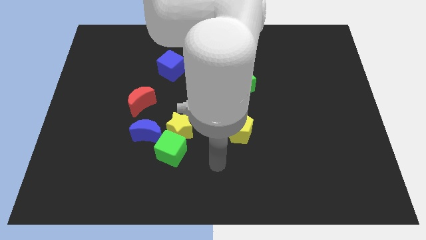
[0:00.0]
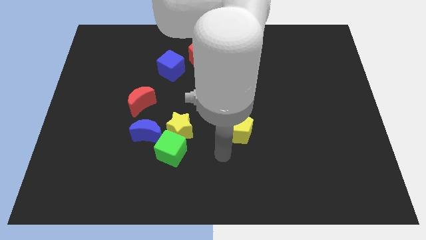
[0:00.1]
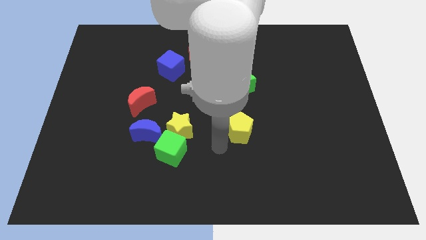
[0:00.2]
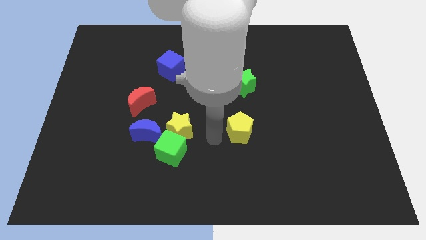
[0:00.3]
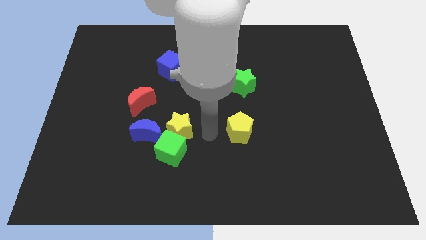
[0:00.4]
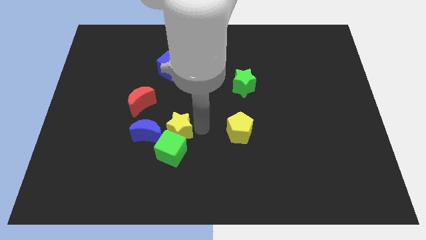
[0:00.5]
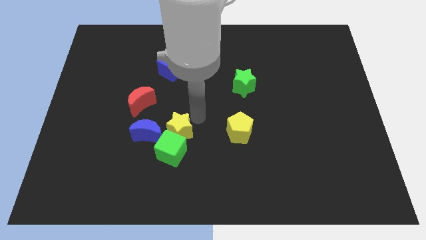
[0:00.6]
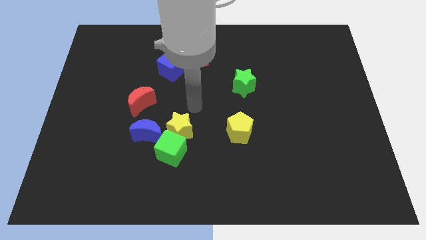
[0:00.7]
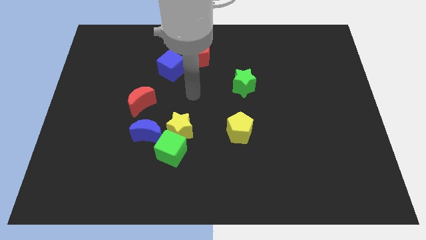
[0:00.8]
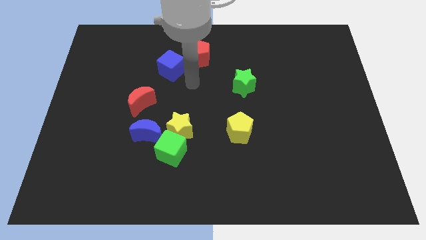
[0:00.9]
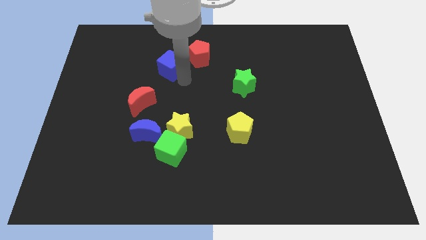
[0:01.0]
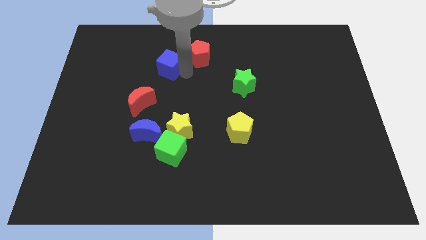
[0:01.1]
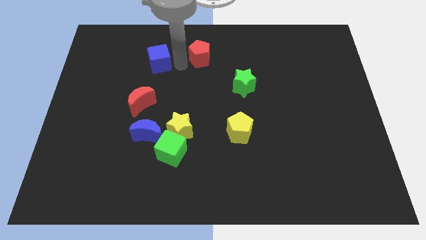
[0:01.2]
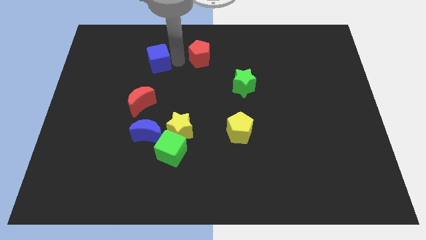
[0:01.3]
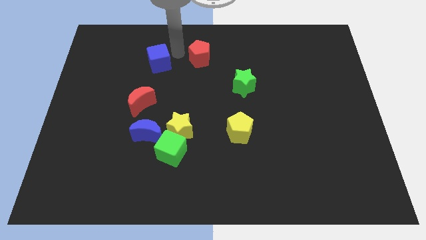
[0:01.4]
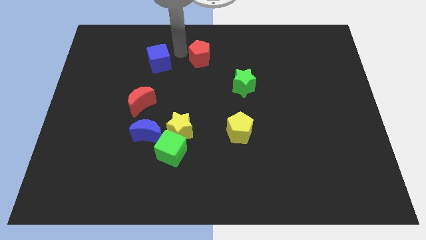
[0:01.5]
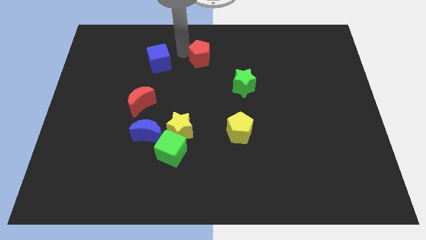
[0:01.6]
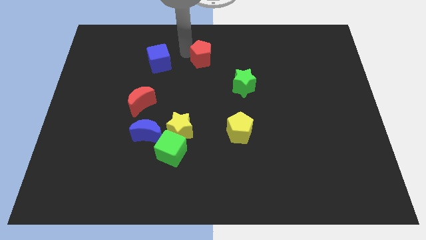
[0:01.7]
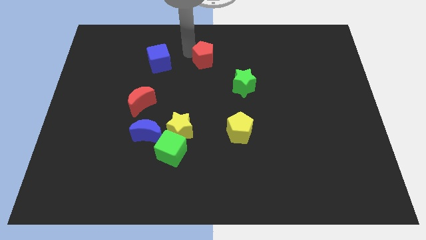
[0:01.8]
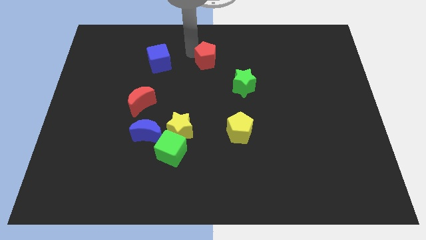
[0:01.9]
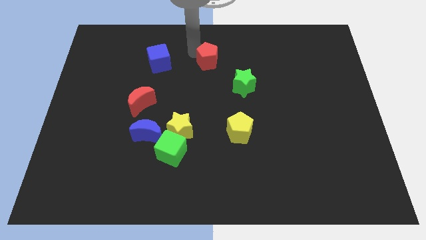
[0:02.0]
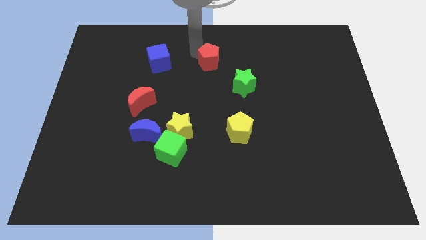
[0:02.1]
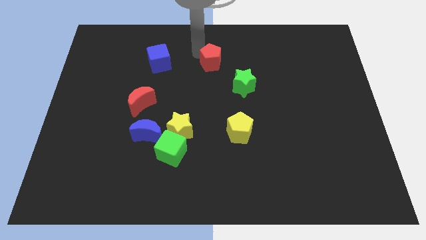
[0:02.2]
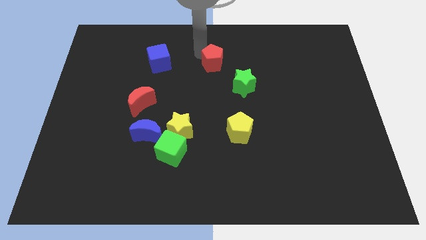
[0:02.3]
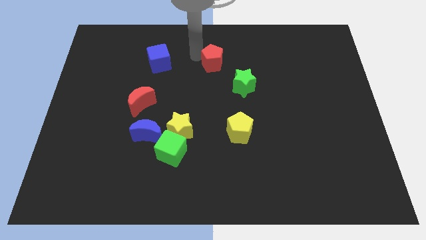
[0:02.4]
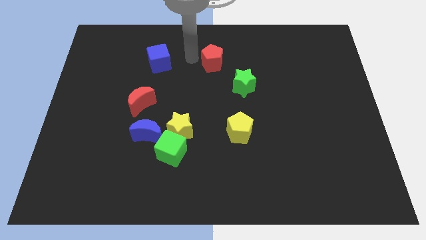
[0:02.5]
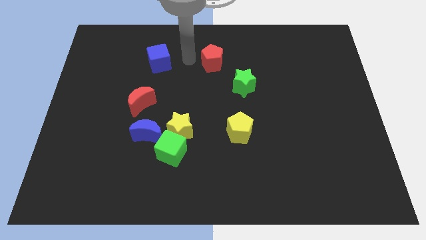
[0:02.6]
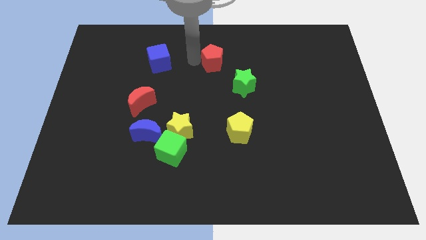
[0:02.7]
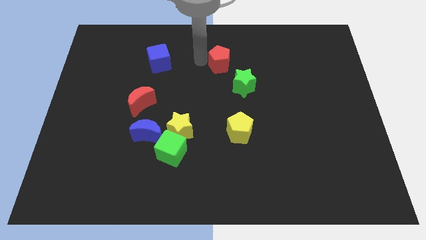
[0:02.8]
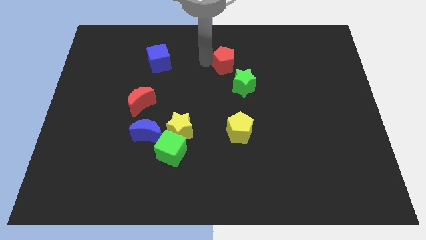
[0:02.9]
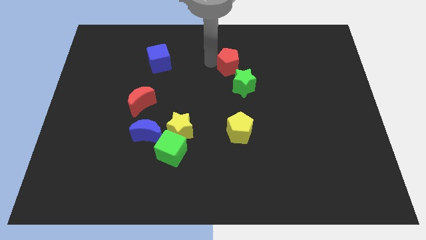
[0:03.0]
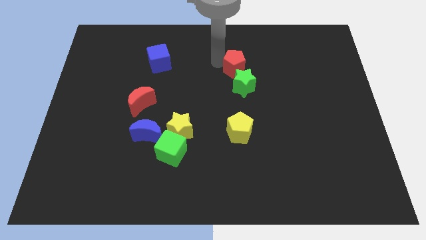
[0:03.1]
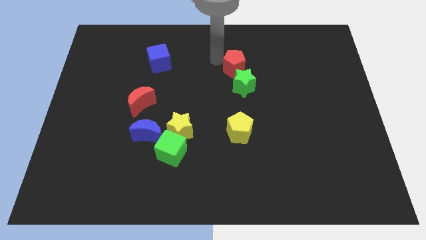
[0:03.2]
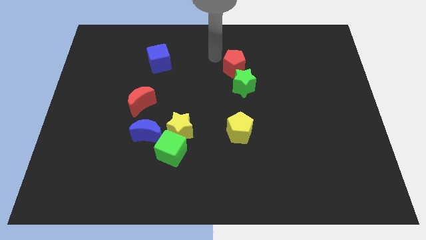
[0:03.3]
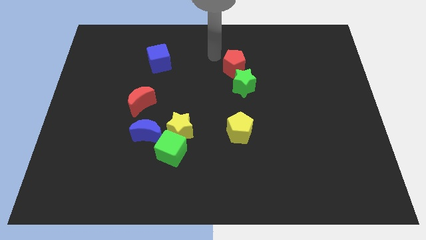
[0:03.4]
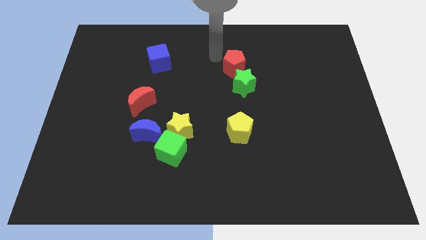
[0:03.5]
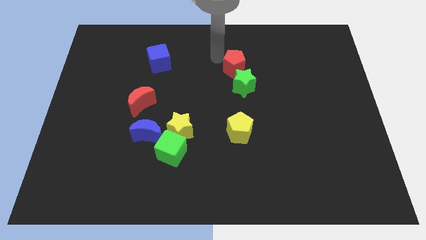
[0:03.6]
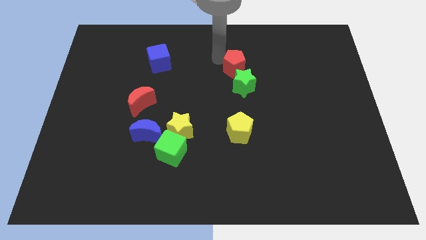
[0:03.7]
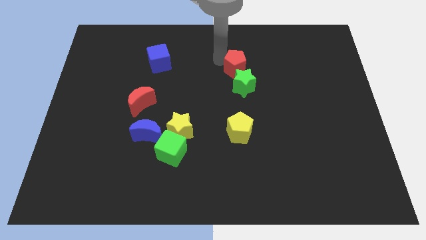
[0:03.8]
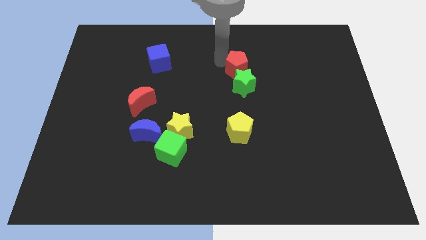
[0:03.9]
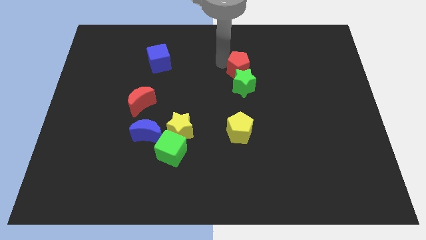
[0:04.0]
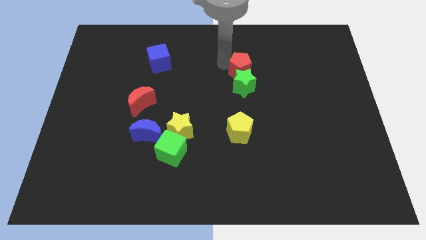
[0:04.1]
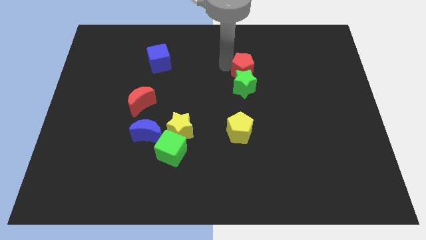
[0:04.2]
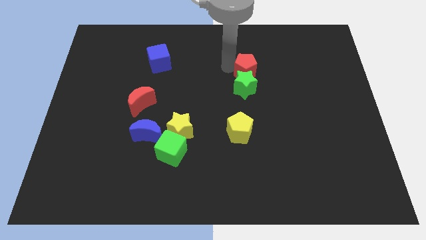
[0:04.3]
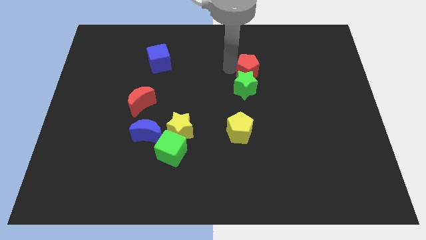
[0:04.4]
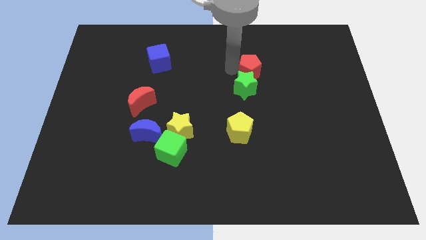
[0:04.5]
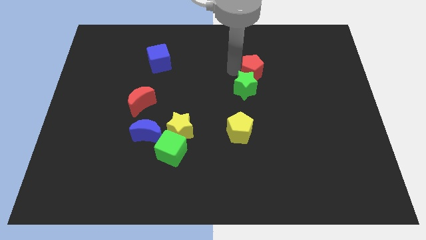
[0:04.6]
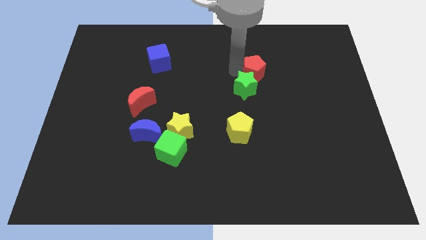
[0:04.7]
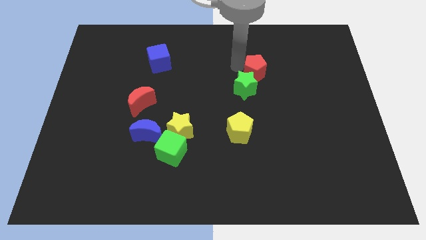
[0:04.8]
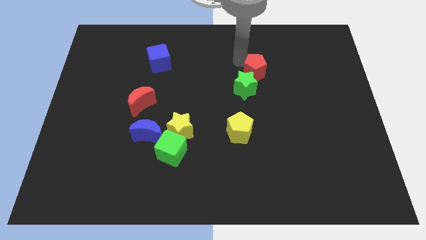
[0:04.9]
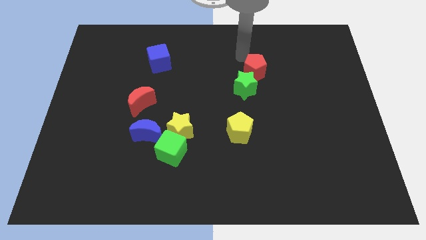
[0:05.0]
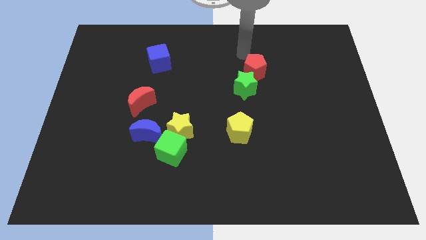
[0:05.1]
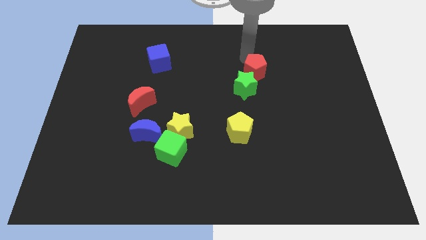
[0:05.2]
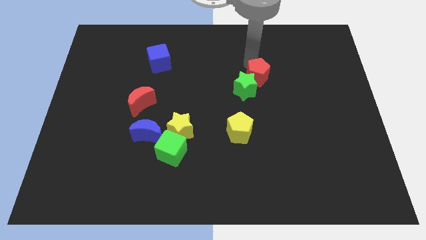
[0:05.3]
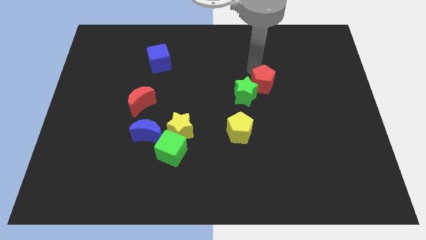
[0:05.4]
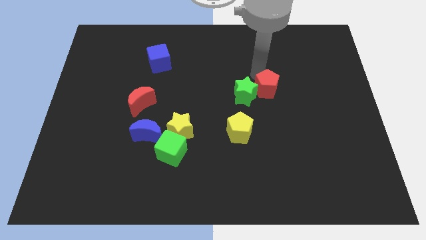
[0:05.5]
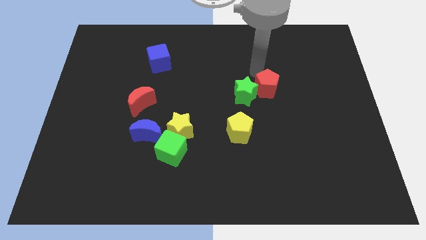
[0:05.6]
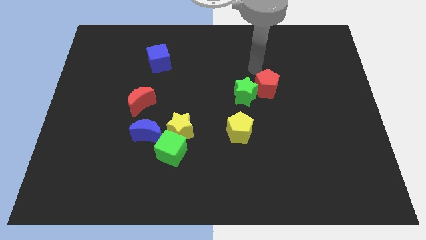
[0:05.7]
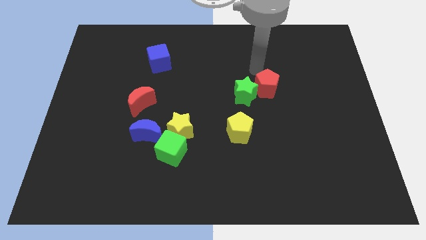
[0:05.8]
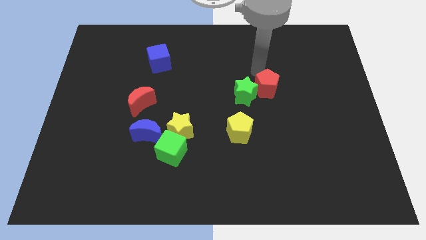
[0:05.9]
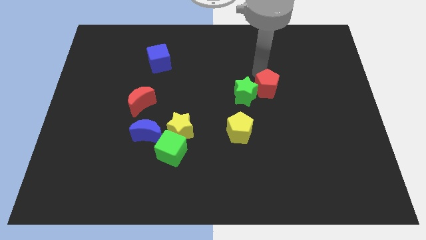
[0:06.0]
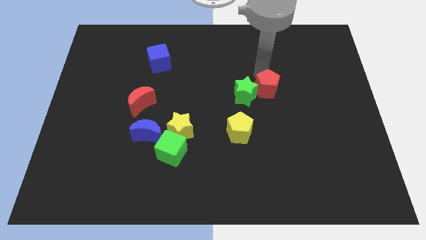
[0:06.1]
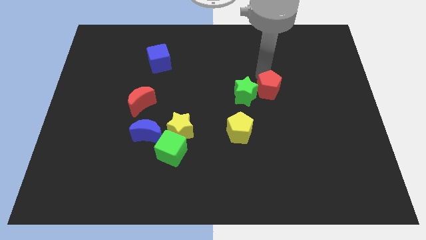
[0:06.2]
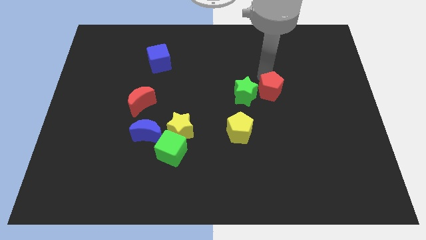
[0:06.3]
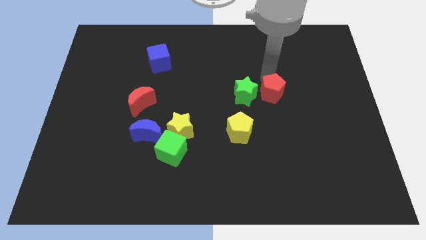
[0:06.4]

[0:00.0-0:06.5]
move the red pentagon down and to the right

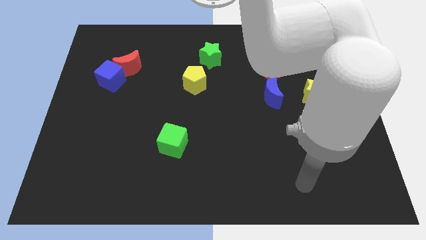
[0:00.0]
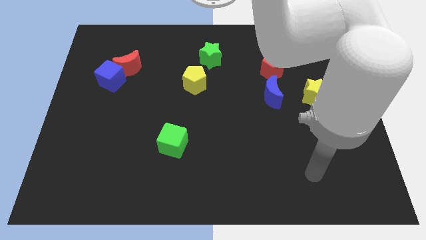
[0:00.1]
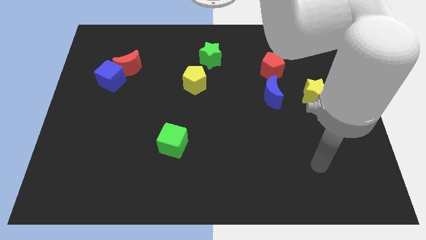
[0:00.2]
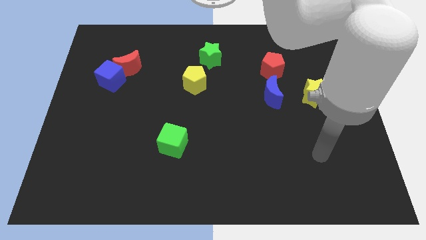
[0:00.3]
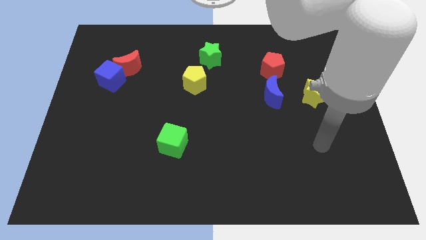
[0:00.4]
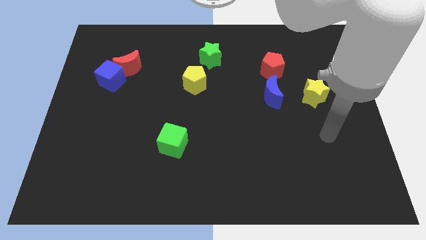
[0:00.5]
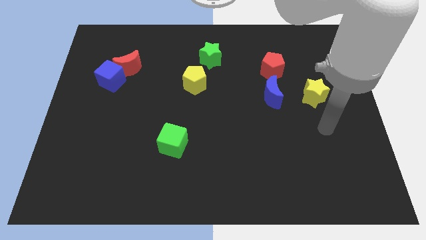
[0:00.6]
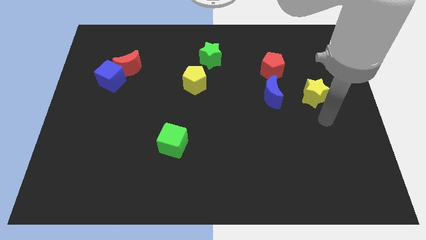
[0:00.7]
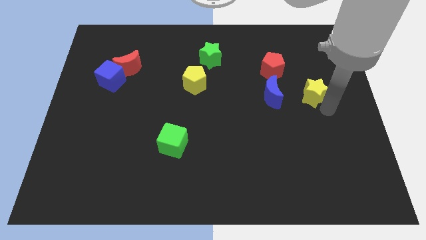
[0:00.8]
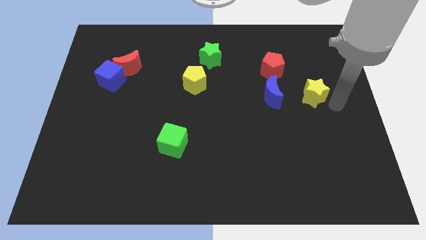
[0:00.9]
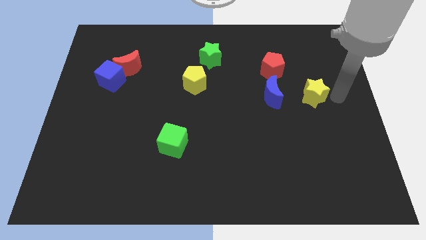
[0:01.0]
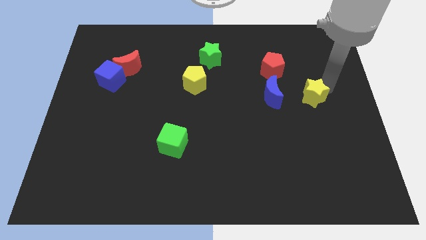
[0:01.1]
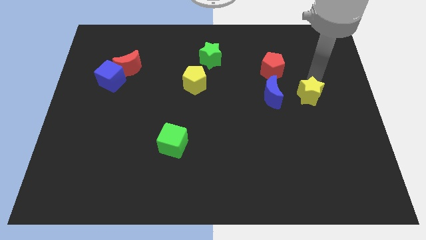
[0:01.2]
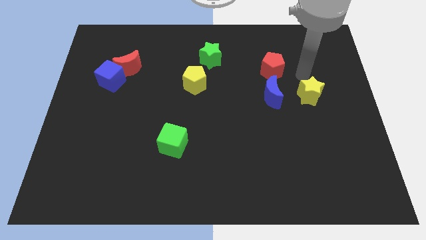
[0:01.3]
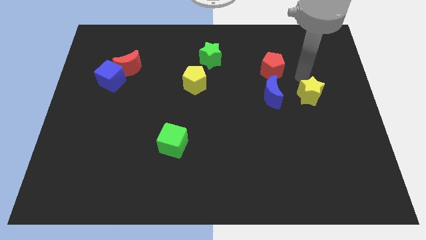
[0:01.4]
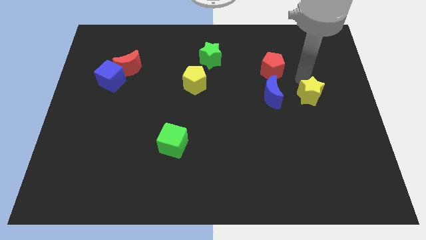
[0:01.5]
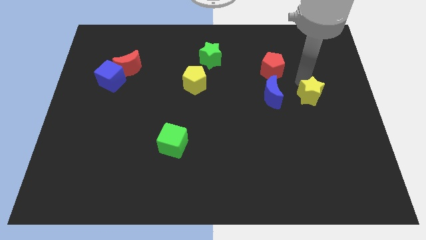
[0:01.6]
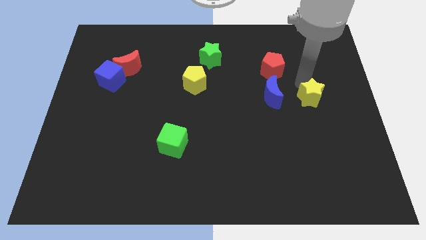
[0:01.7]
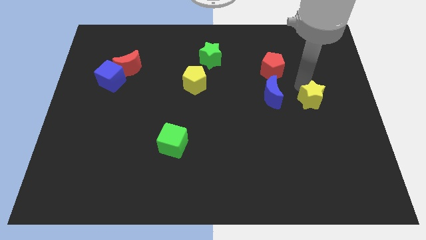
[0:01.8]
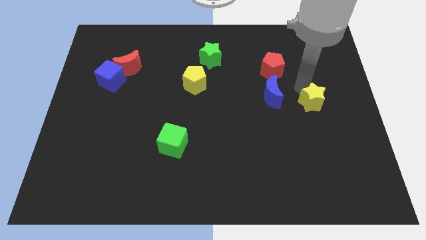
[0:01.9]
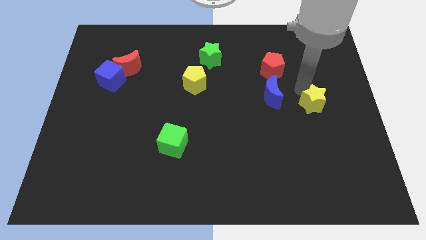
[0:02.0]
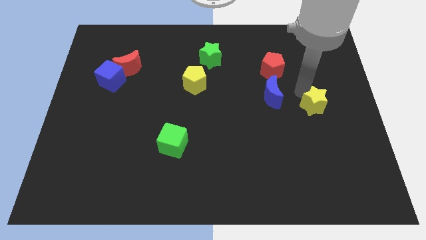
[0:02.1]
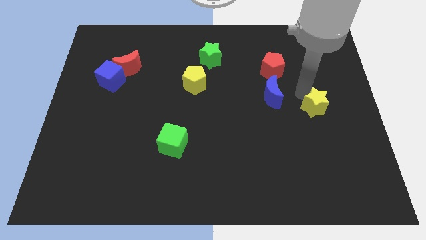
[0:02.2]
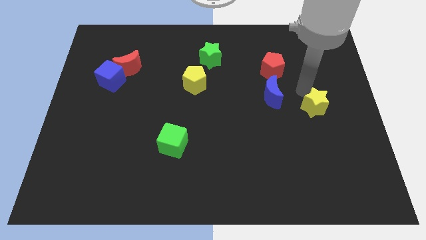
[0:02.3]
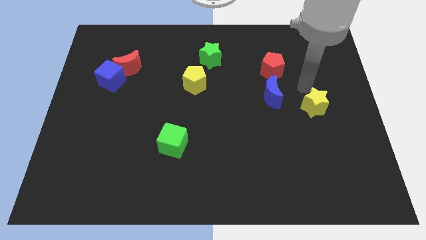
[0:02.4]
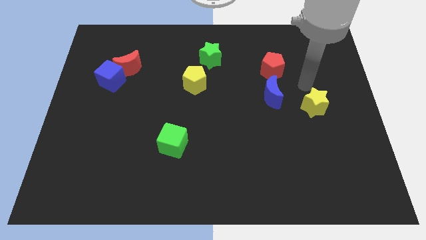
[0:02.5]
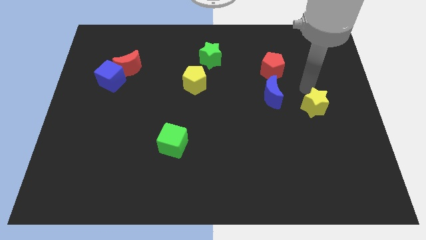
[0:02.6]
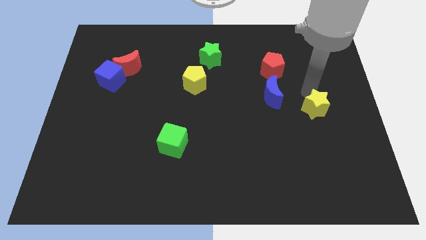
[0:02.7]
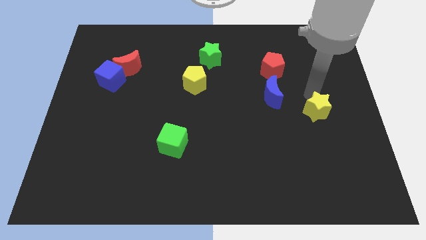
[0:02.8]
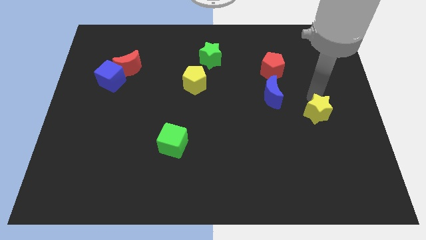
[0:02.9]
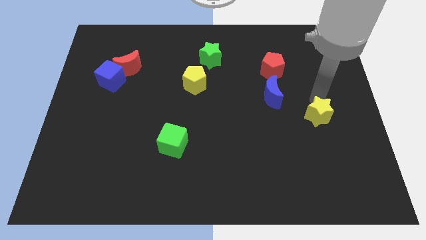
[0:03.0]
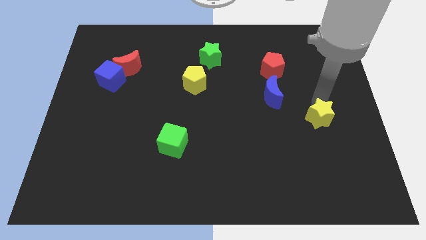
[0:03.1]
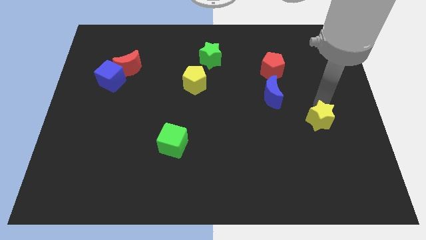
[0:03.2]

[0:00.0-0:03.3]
slightly push the yellow star down
